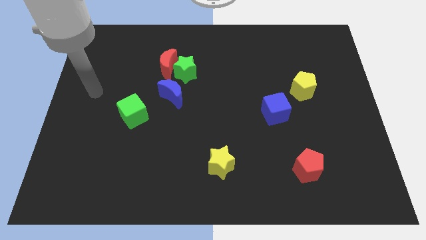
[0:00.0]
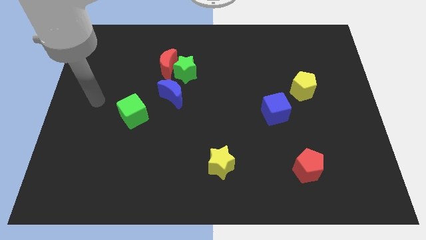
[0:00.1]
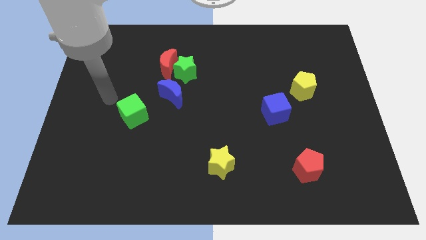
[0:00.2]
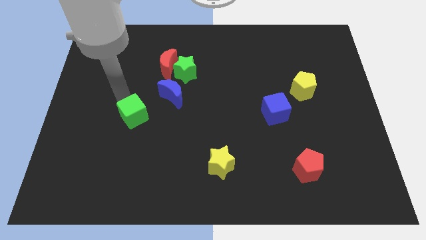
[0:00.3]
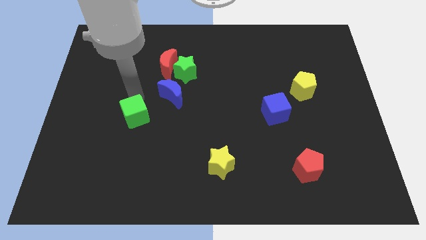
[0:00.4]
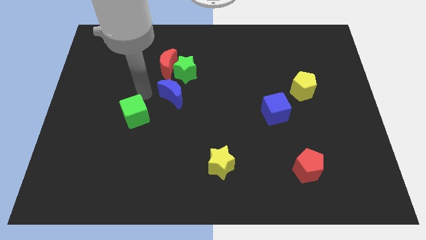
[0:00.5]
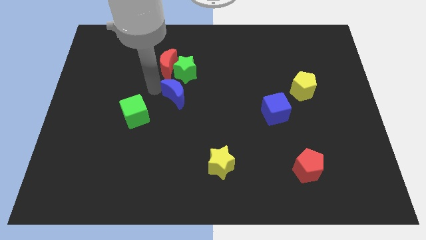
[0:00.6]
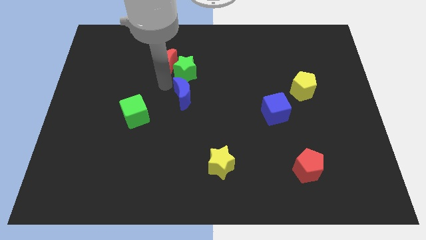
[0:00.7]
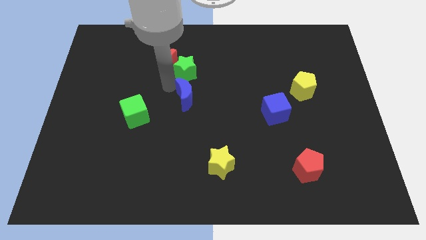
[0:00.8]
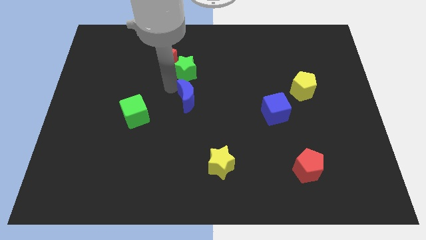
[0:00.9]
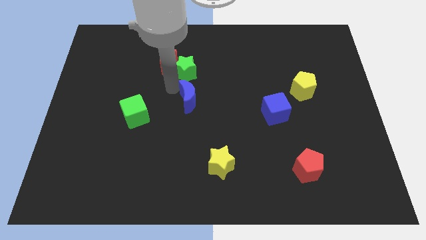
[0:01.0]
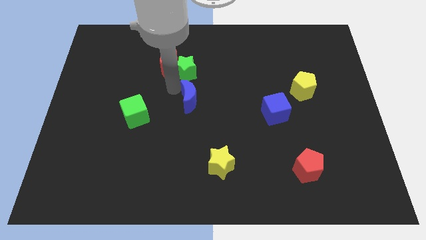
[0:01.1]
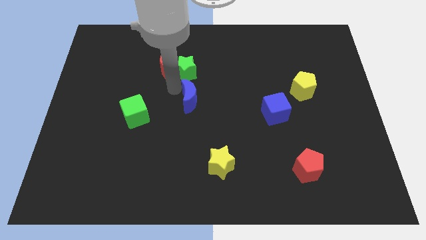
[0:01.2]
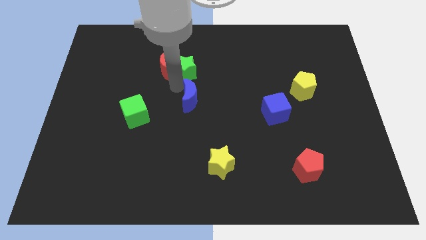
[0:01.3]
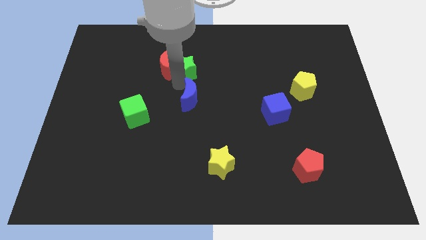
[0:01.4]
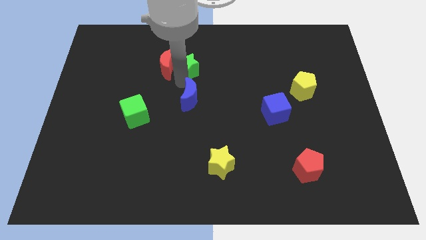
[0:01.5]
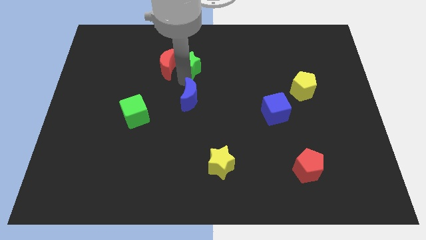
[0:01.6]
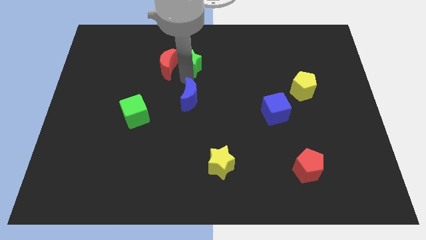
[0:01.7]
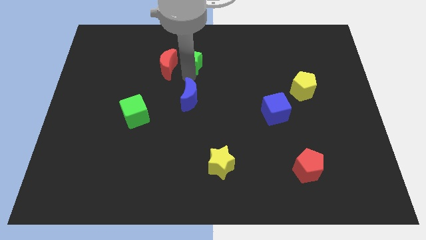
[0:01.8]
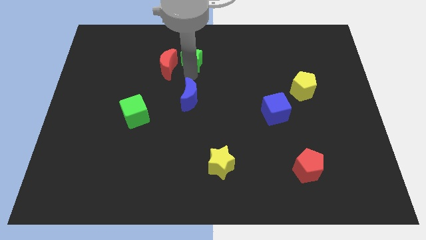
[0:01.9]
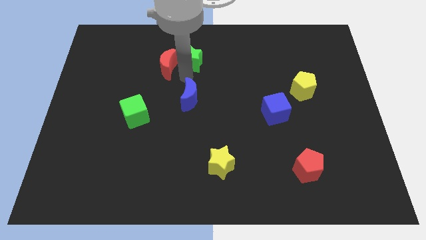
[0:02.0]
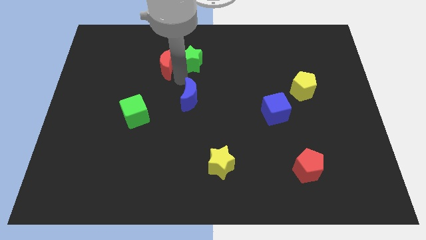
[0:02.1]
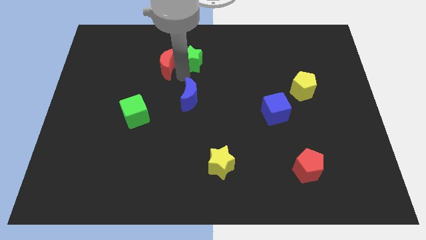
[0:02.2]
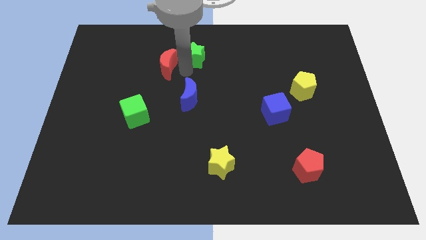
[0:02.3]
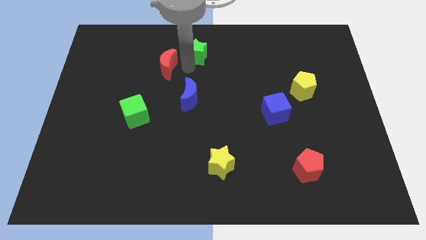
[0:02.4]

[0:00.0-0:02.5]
move the green star away from the red moon and blue moon

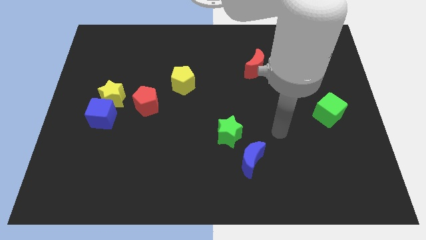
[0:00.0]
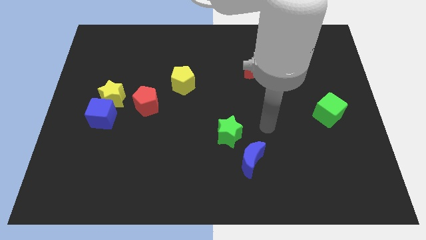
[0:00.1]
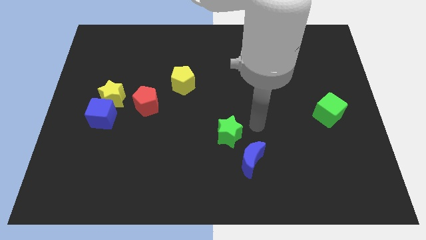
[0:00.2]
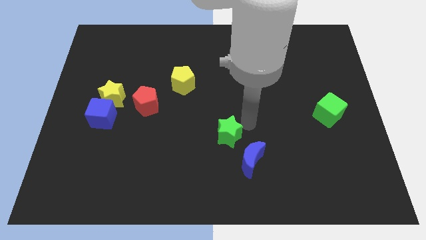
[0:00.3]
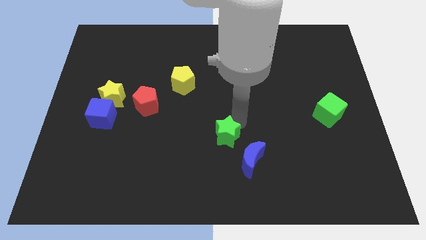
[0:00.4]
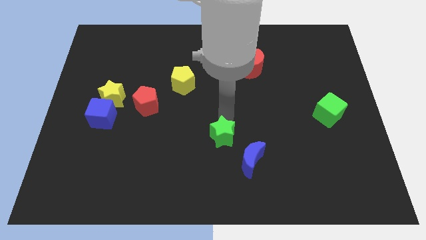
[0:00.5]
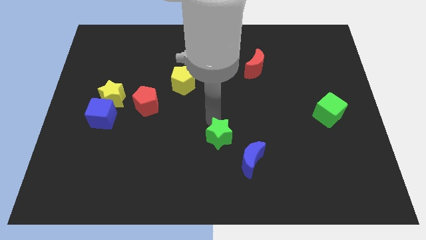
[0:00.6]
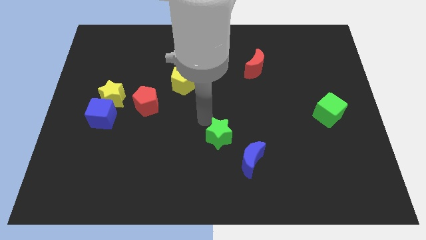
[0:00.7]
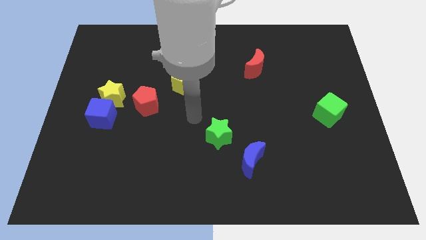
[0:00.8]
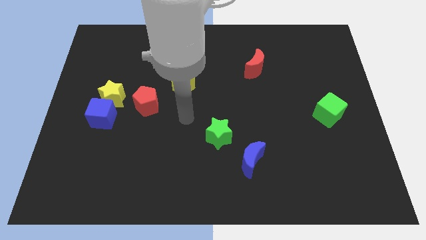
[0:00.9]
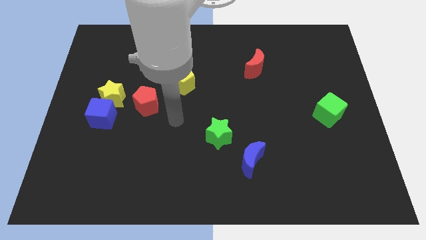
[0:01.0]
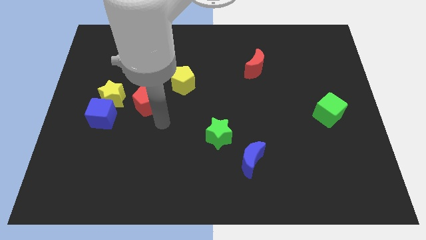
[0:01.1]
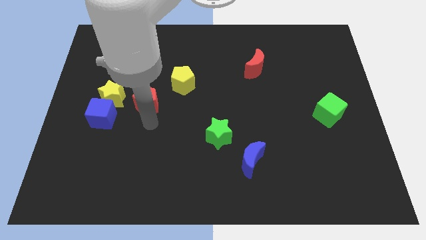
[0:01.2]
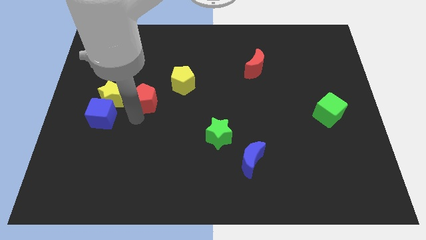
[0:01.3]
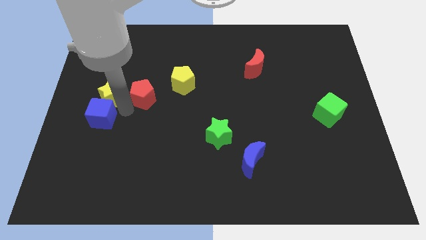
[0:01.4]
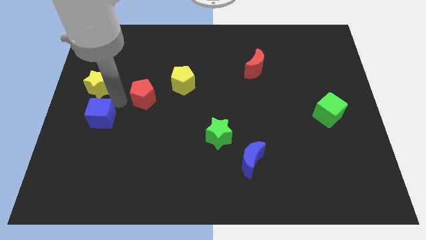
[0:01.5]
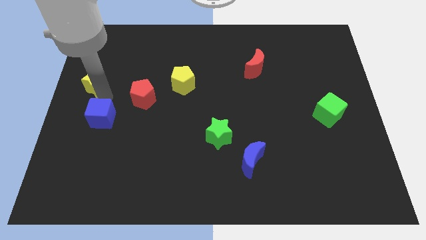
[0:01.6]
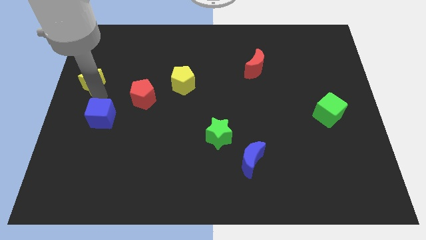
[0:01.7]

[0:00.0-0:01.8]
move the blue cube away from the yellow star

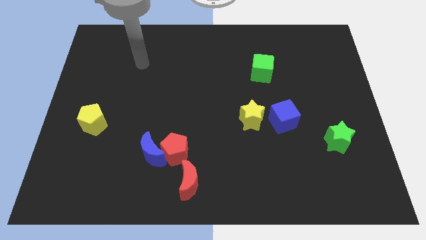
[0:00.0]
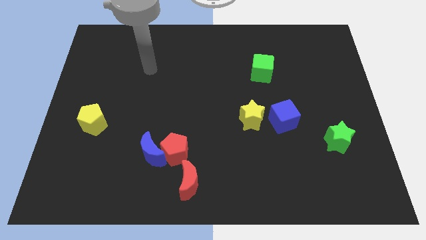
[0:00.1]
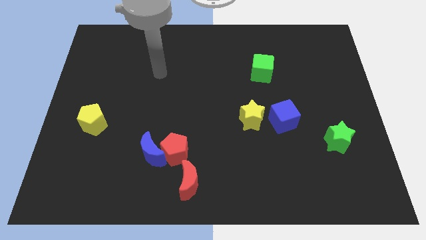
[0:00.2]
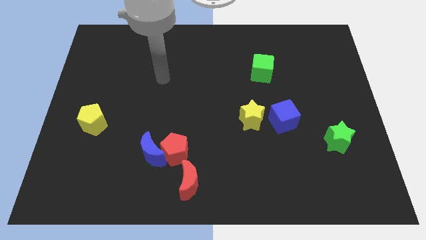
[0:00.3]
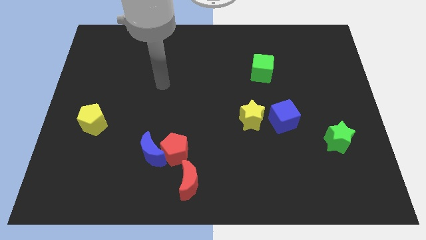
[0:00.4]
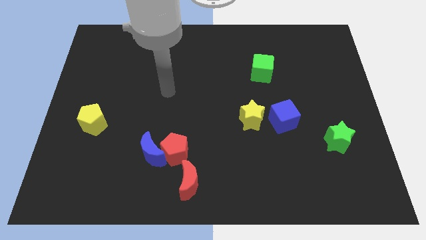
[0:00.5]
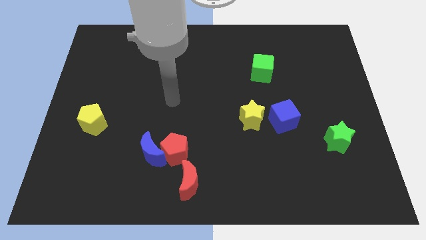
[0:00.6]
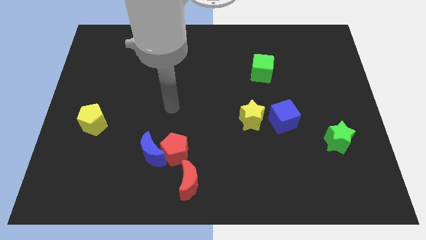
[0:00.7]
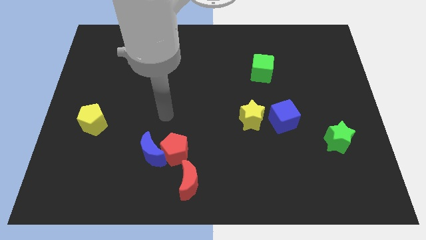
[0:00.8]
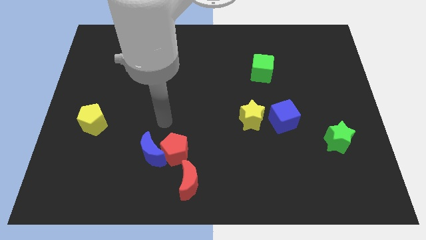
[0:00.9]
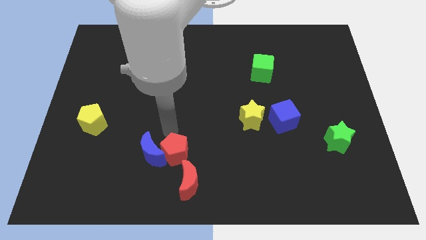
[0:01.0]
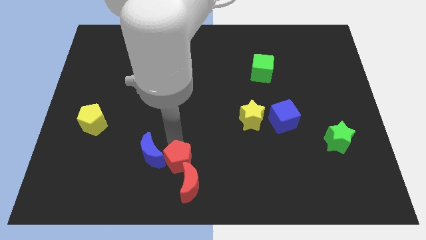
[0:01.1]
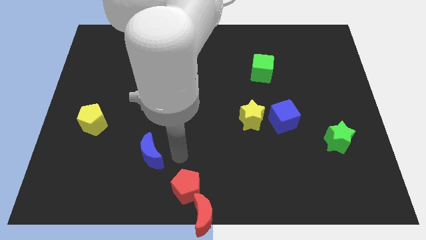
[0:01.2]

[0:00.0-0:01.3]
move the blue moon away from the red pentagon

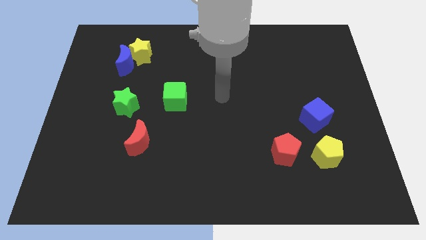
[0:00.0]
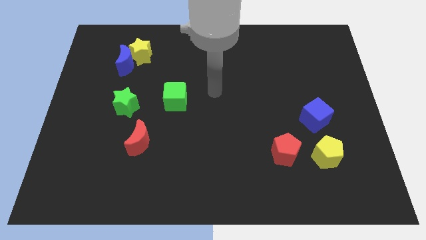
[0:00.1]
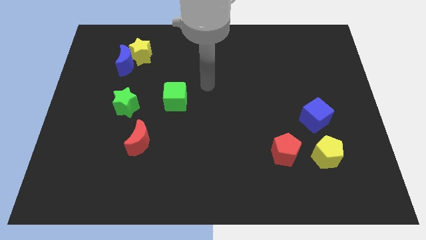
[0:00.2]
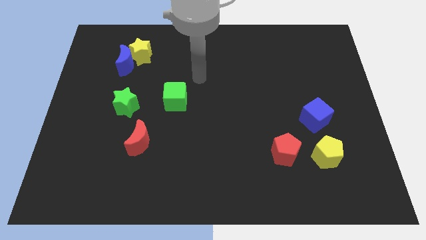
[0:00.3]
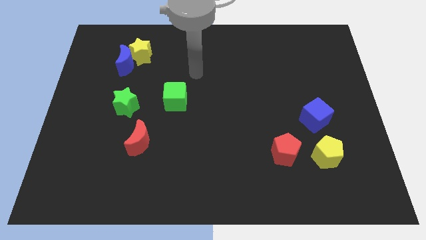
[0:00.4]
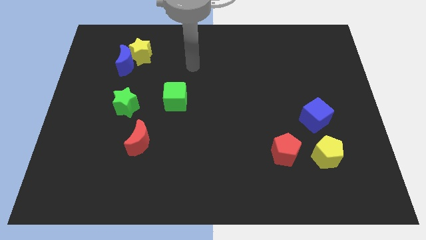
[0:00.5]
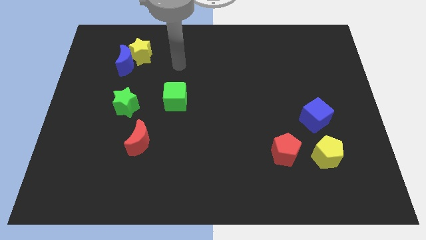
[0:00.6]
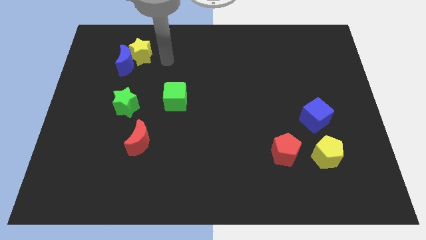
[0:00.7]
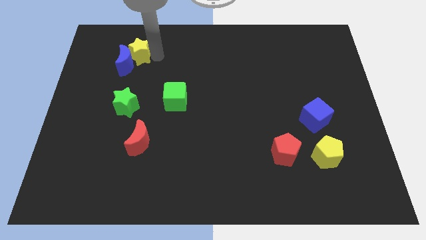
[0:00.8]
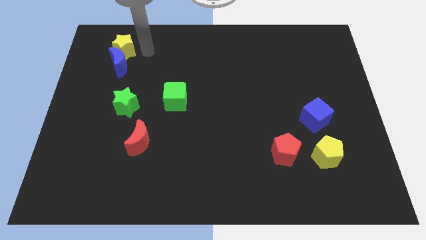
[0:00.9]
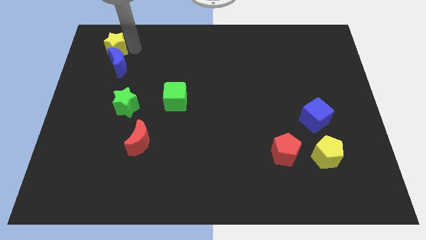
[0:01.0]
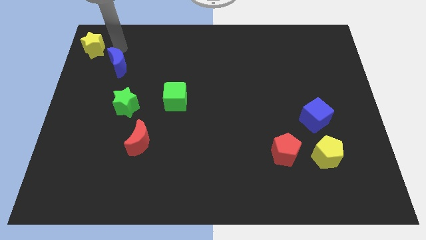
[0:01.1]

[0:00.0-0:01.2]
pull the blue moon apart from the yellow star

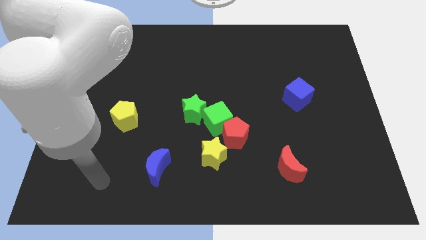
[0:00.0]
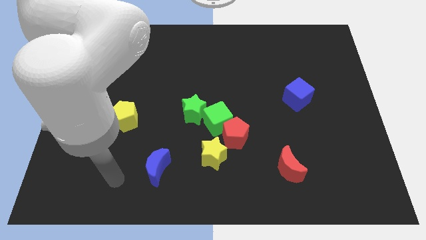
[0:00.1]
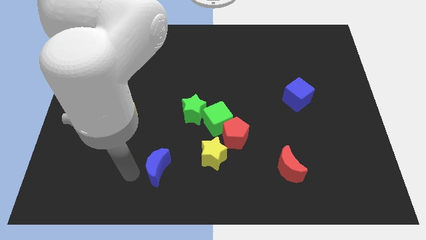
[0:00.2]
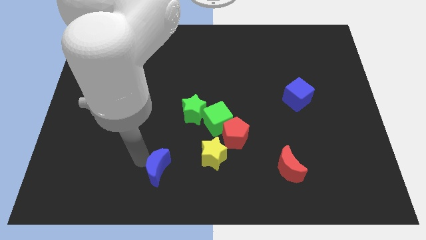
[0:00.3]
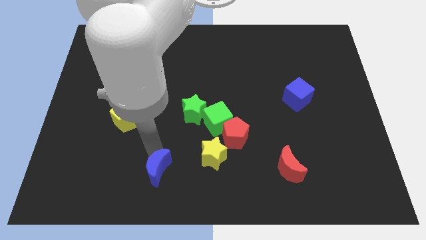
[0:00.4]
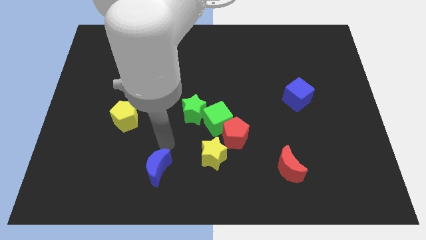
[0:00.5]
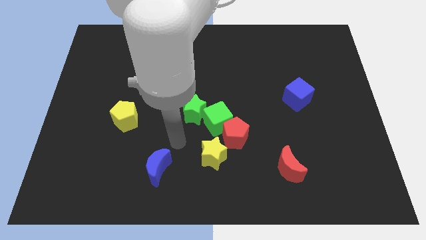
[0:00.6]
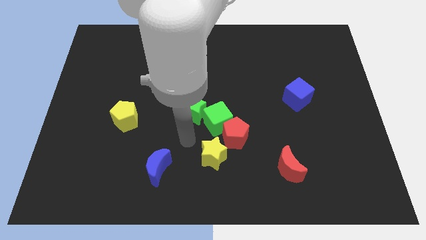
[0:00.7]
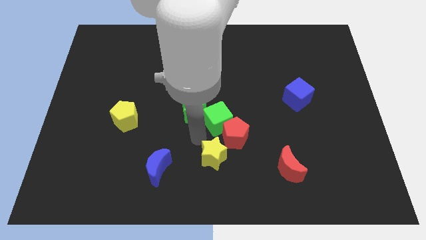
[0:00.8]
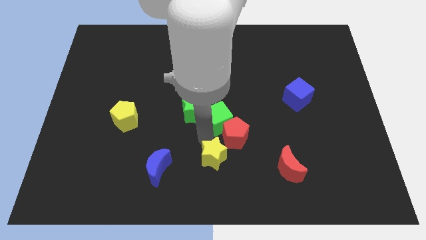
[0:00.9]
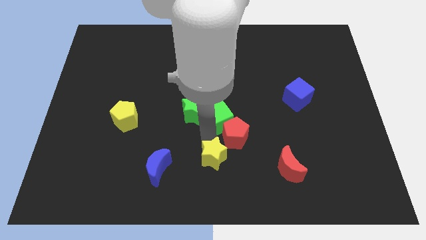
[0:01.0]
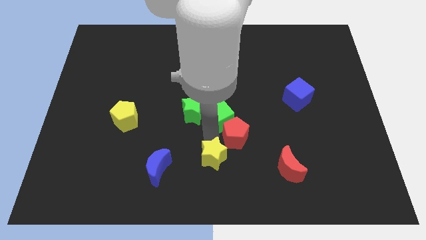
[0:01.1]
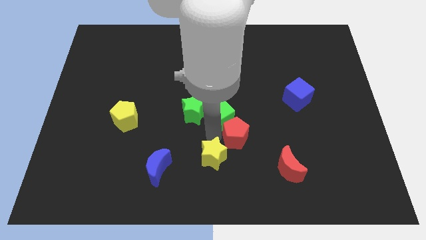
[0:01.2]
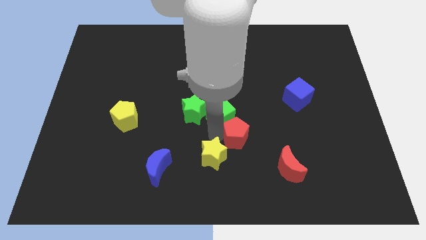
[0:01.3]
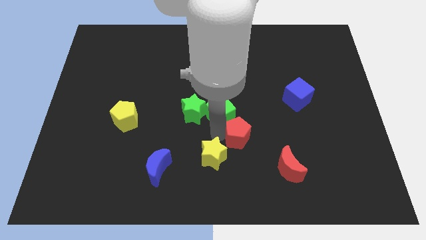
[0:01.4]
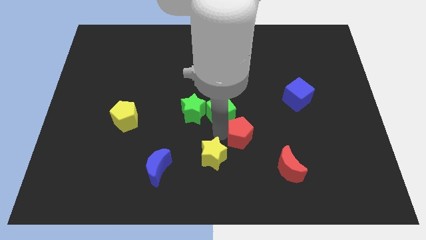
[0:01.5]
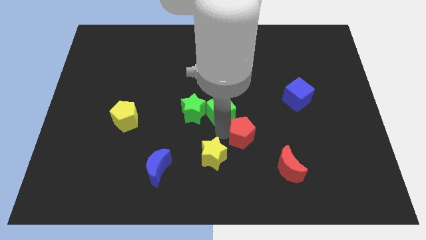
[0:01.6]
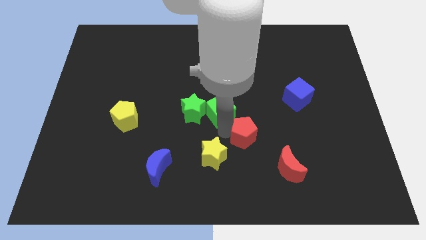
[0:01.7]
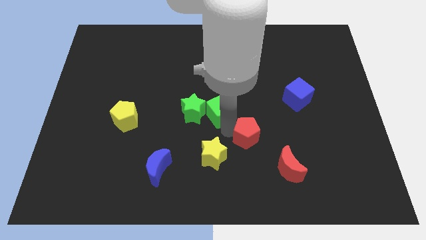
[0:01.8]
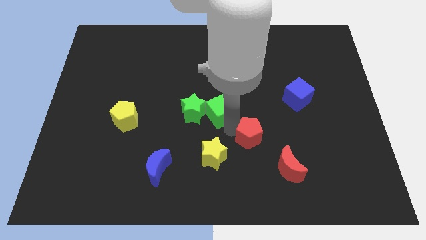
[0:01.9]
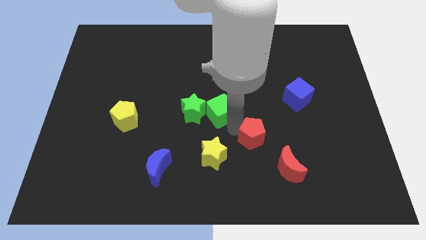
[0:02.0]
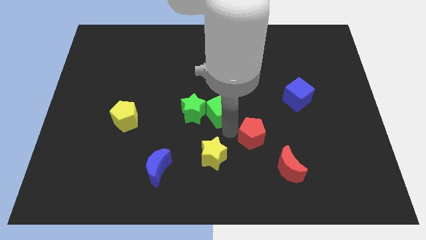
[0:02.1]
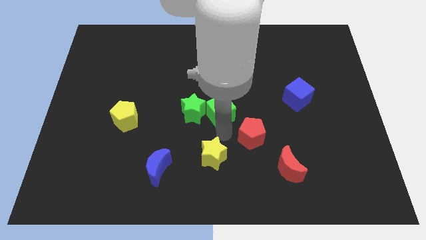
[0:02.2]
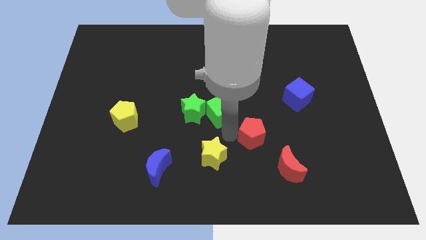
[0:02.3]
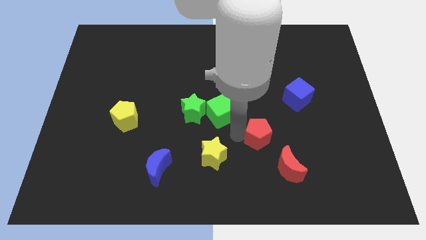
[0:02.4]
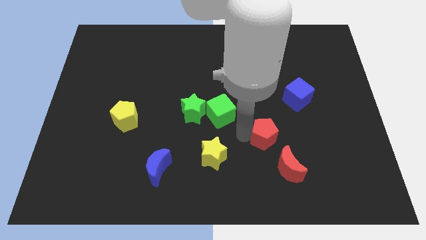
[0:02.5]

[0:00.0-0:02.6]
separate the red pentagon from the green cube and yellow star
